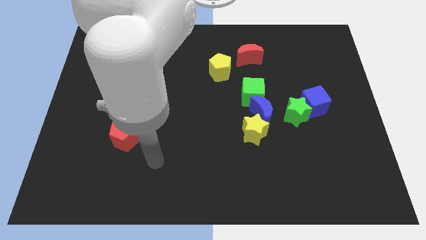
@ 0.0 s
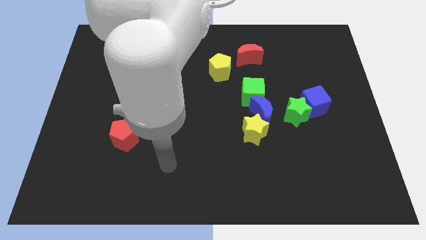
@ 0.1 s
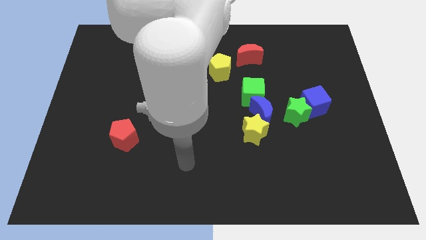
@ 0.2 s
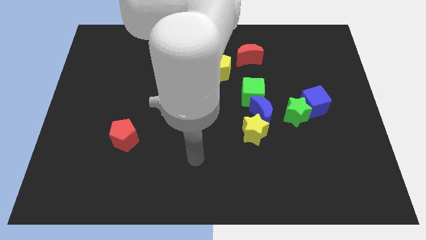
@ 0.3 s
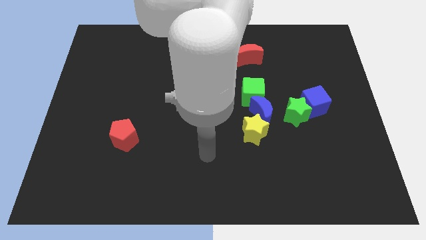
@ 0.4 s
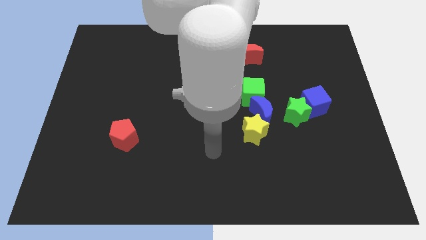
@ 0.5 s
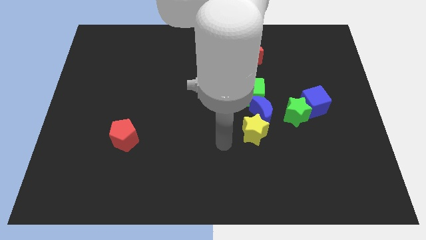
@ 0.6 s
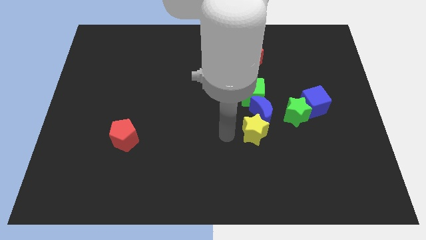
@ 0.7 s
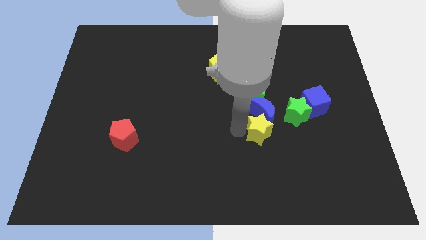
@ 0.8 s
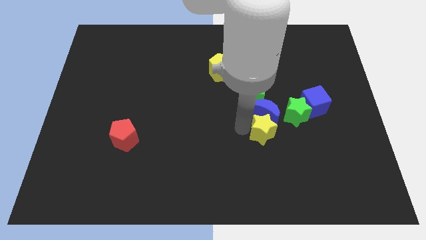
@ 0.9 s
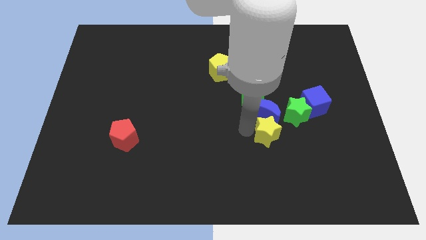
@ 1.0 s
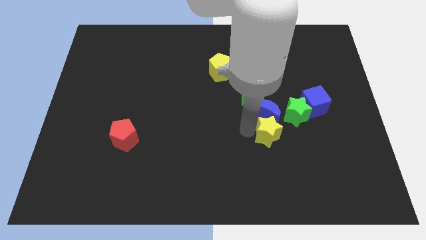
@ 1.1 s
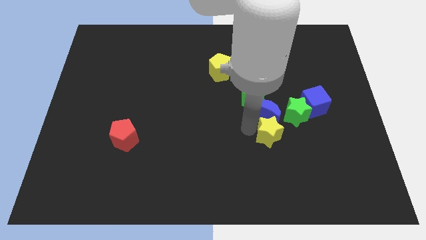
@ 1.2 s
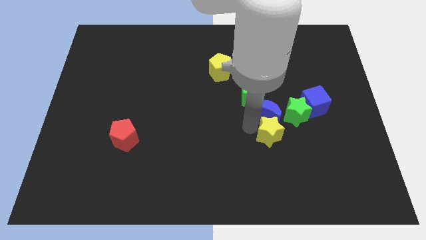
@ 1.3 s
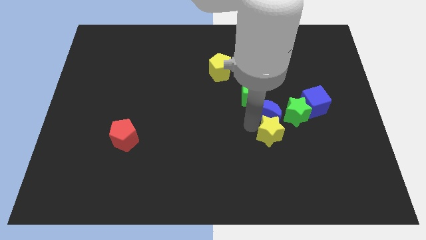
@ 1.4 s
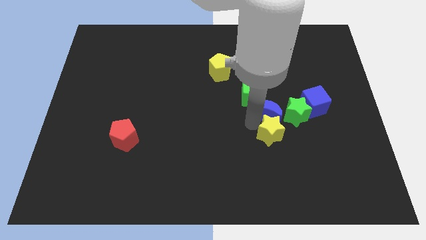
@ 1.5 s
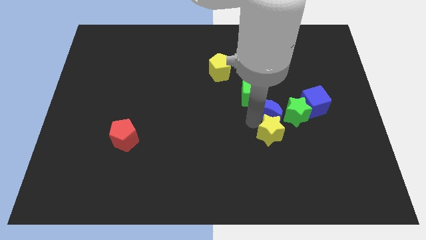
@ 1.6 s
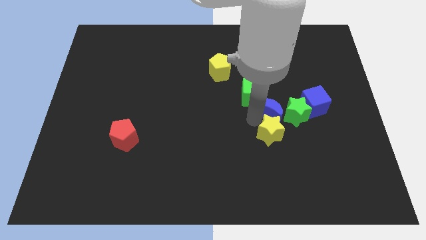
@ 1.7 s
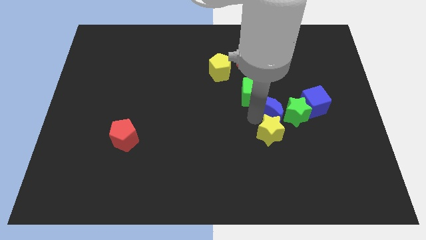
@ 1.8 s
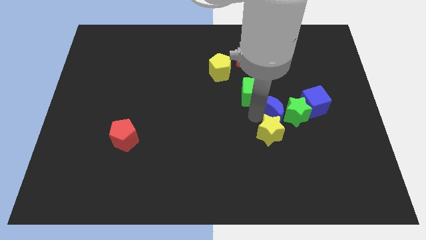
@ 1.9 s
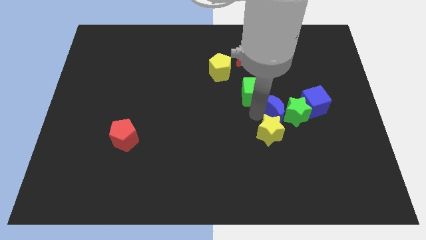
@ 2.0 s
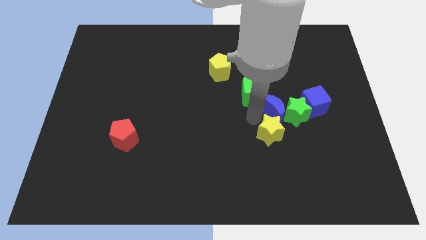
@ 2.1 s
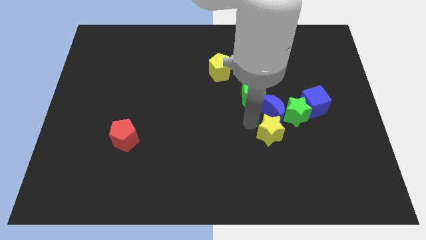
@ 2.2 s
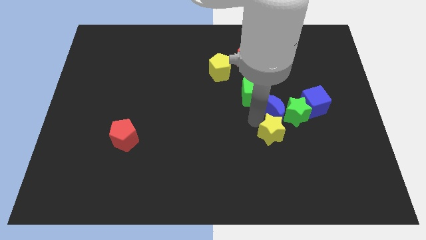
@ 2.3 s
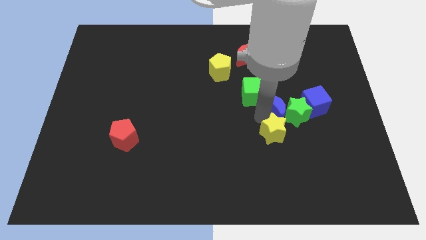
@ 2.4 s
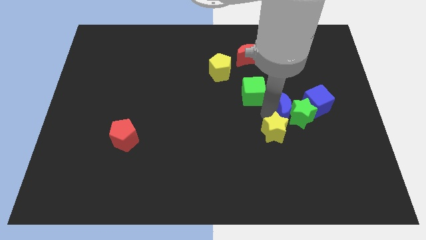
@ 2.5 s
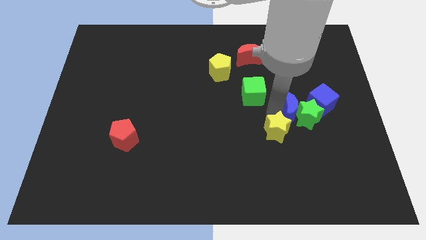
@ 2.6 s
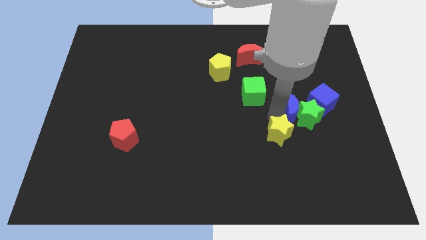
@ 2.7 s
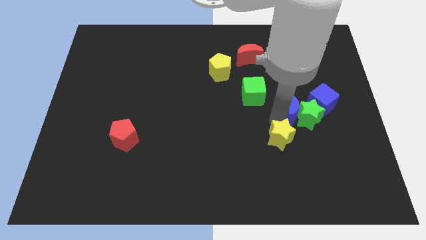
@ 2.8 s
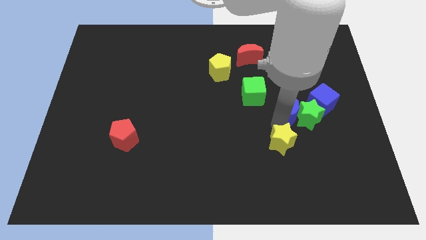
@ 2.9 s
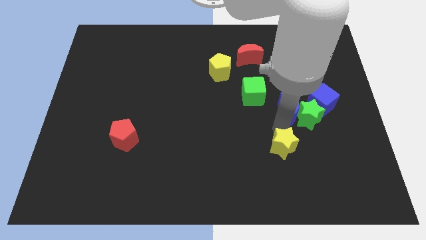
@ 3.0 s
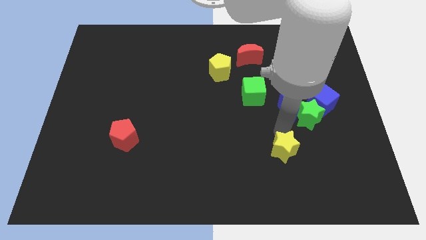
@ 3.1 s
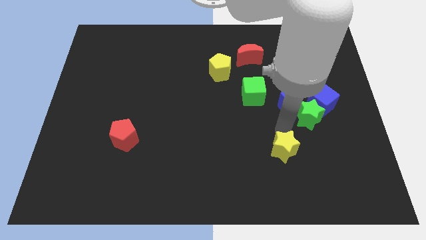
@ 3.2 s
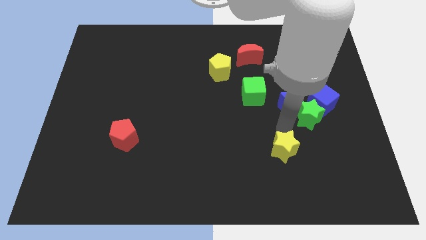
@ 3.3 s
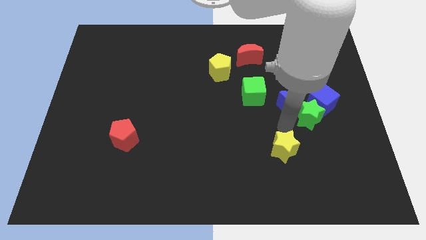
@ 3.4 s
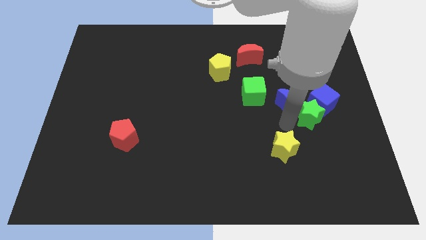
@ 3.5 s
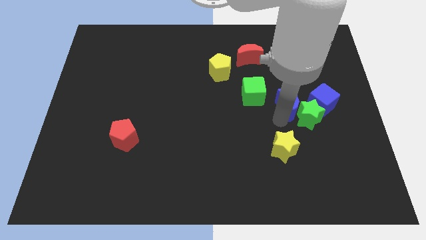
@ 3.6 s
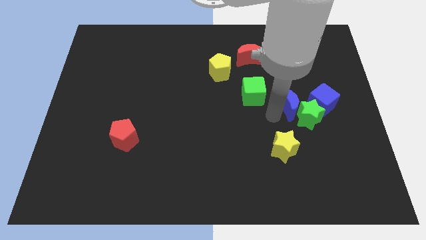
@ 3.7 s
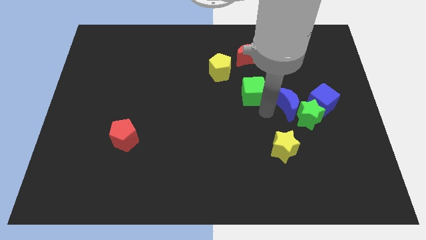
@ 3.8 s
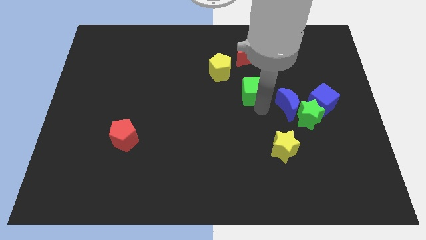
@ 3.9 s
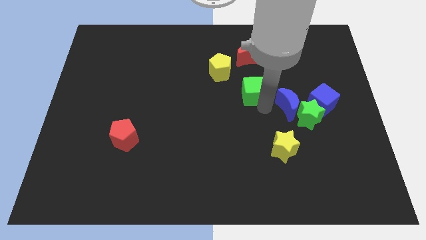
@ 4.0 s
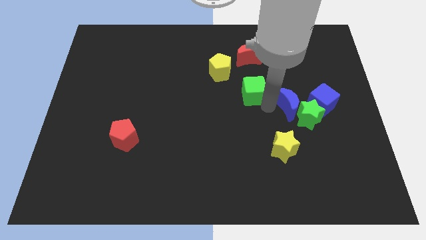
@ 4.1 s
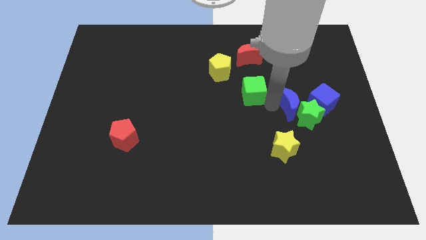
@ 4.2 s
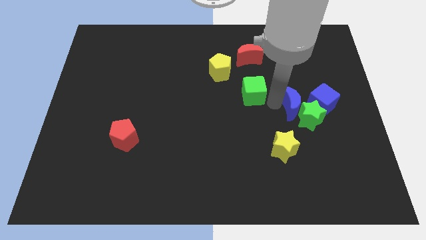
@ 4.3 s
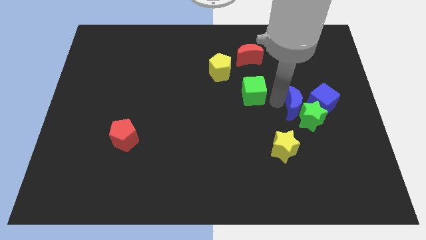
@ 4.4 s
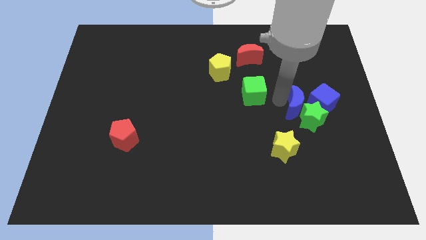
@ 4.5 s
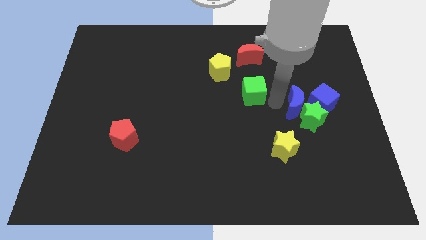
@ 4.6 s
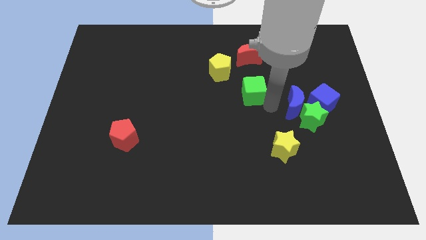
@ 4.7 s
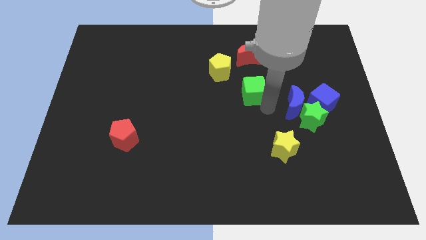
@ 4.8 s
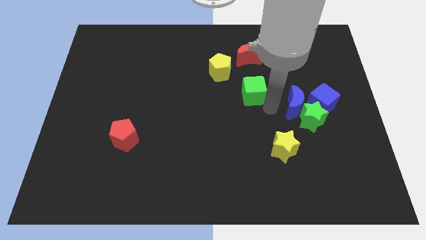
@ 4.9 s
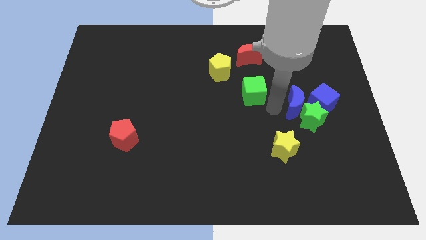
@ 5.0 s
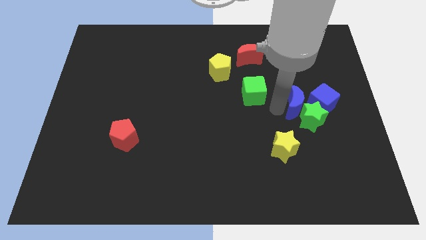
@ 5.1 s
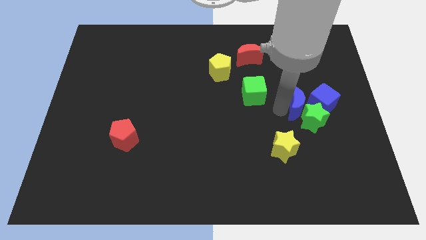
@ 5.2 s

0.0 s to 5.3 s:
move the blue moon close to the blue cube

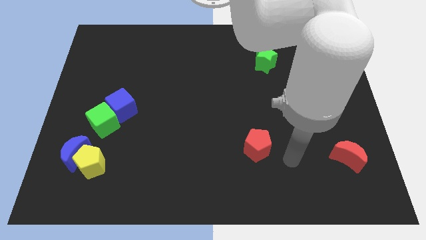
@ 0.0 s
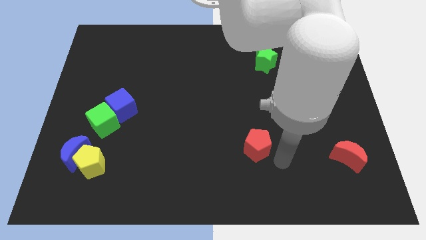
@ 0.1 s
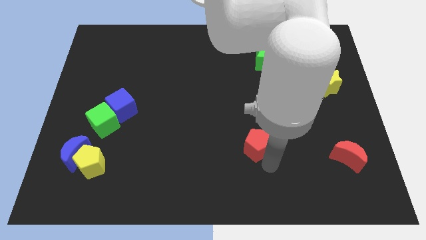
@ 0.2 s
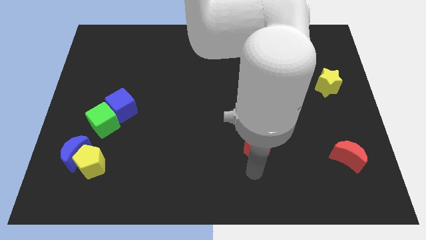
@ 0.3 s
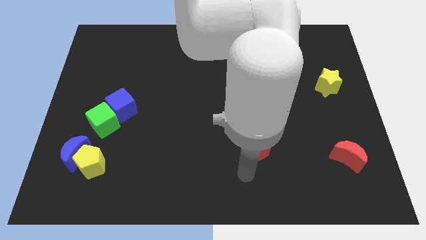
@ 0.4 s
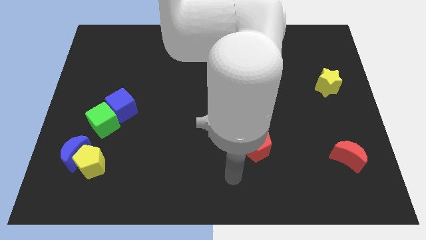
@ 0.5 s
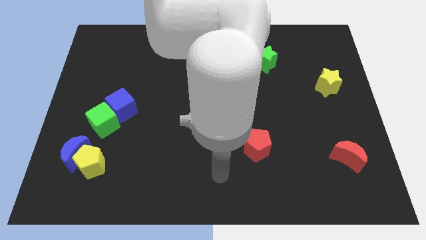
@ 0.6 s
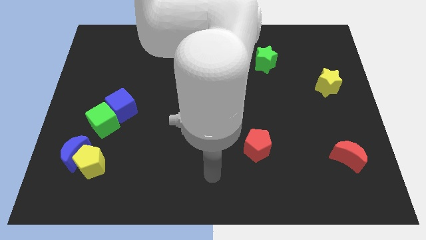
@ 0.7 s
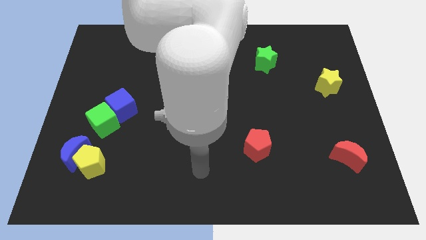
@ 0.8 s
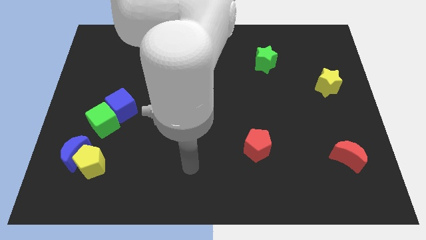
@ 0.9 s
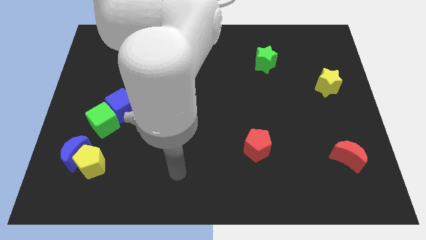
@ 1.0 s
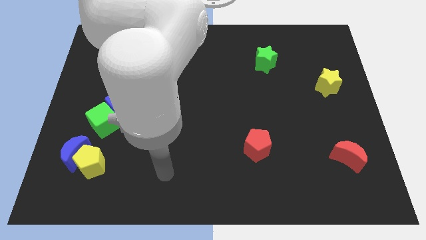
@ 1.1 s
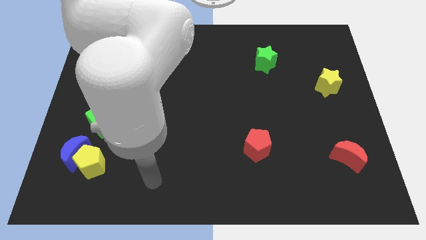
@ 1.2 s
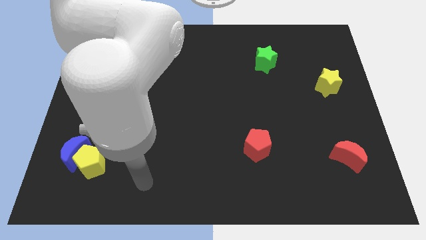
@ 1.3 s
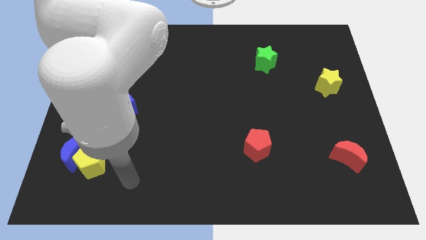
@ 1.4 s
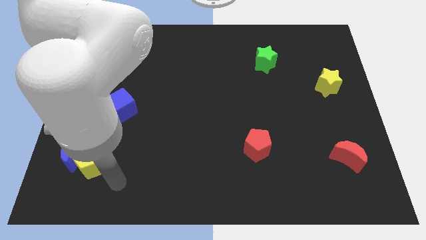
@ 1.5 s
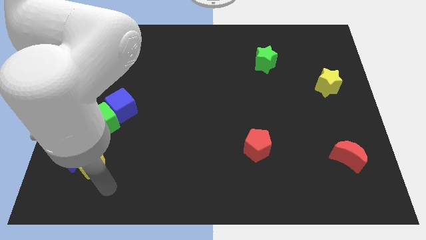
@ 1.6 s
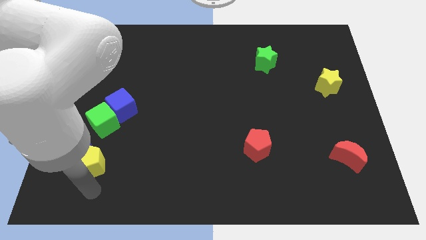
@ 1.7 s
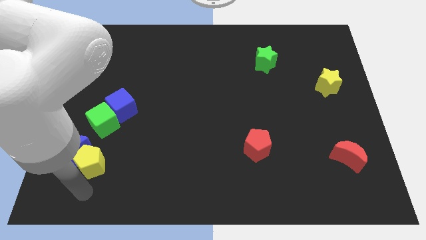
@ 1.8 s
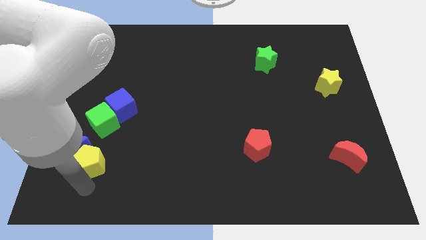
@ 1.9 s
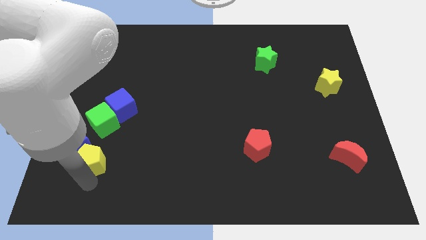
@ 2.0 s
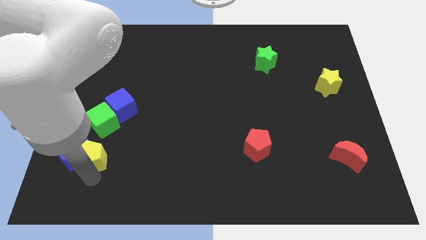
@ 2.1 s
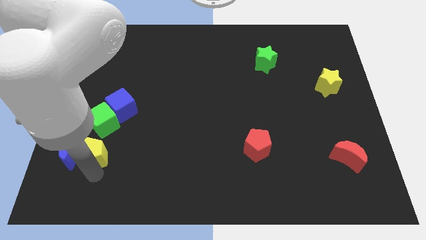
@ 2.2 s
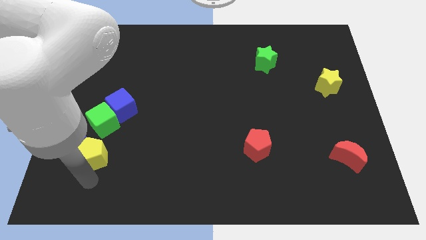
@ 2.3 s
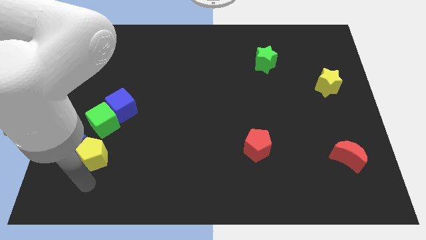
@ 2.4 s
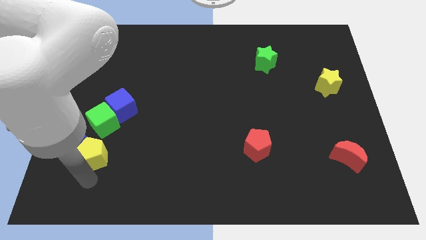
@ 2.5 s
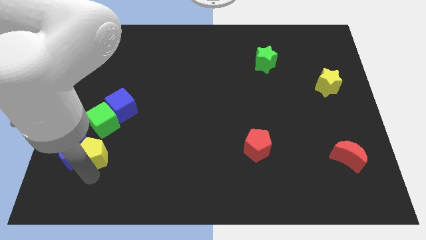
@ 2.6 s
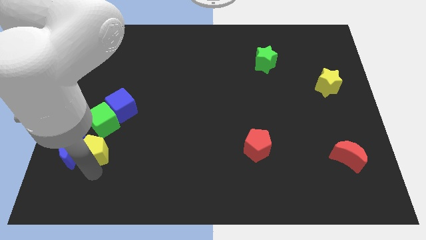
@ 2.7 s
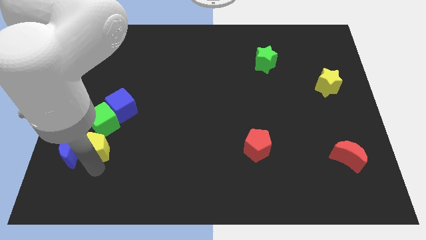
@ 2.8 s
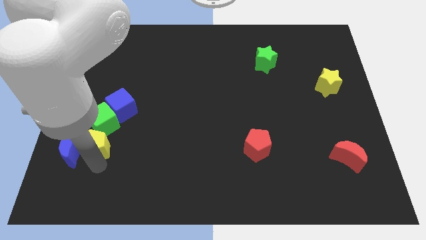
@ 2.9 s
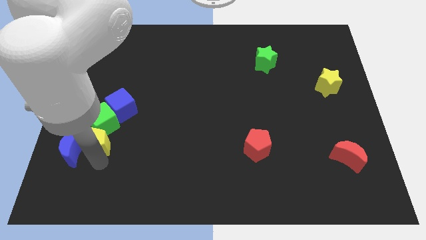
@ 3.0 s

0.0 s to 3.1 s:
move the yellow pentagon towards the green cube
